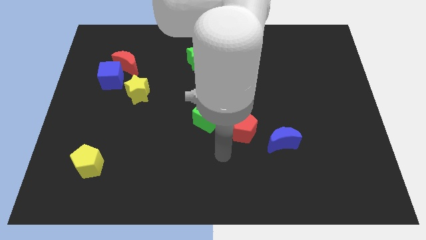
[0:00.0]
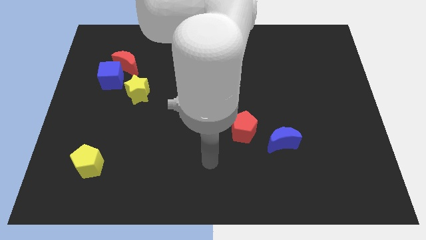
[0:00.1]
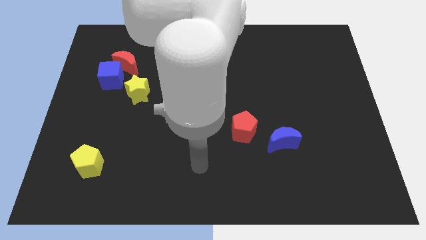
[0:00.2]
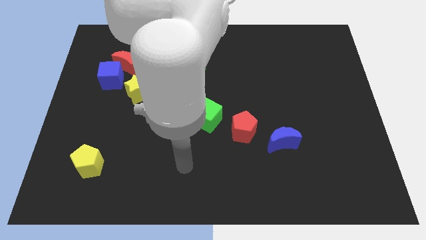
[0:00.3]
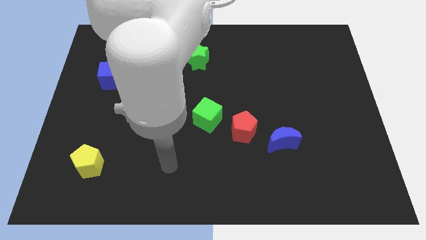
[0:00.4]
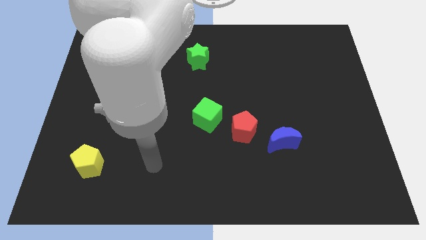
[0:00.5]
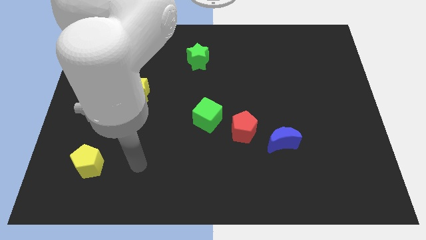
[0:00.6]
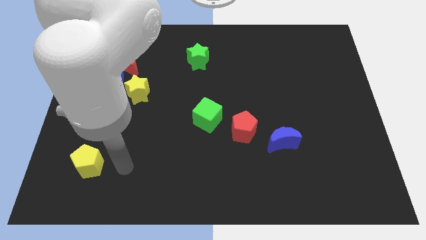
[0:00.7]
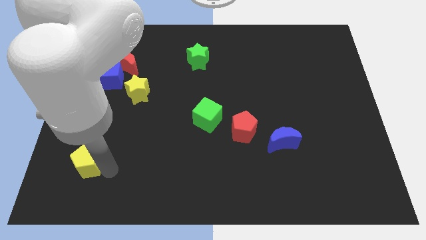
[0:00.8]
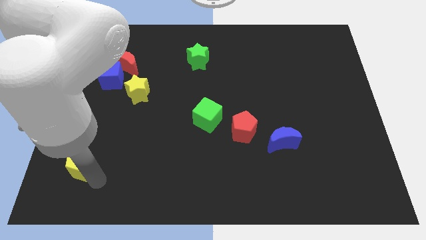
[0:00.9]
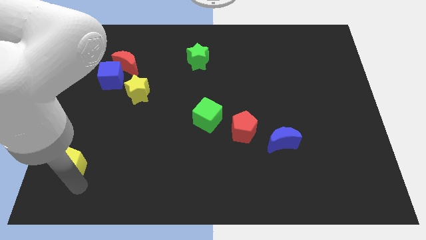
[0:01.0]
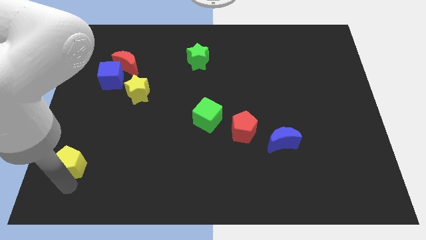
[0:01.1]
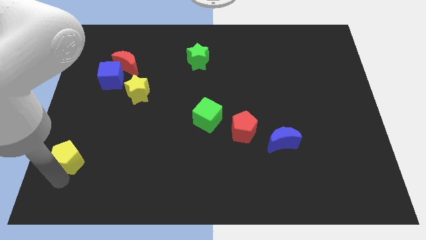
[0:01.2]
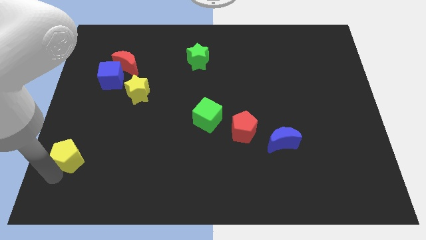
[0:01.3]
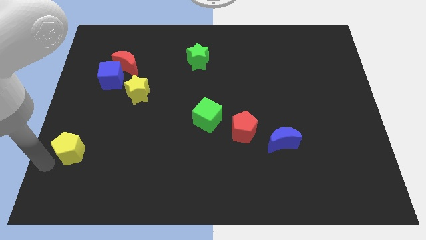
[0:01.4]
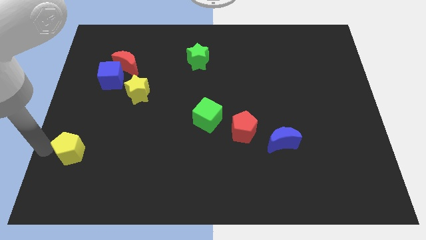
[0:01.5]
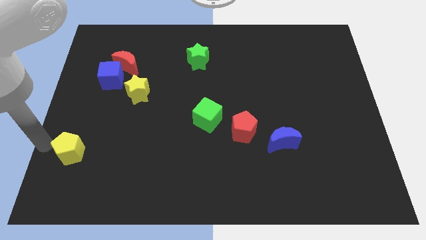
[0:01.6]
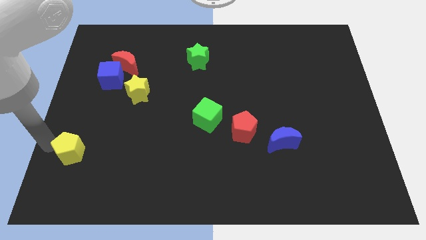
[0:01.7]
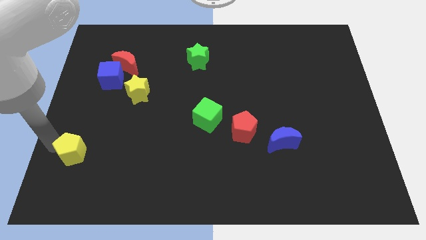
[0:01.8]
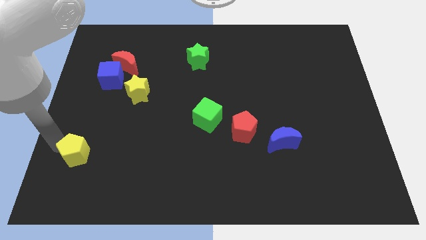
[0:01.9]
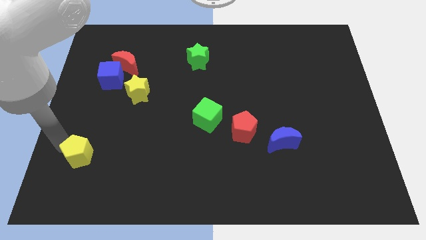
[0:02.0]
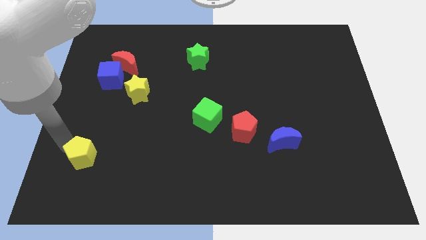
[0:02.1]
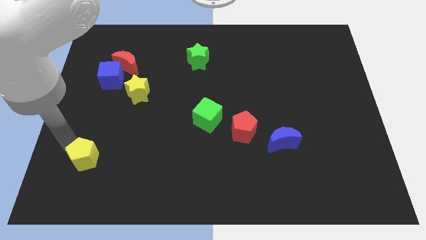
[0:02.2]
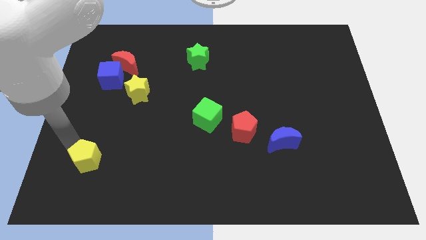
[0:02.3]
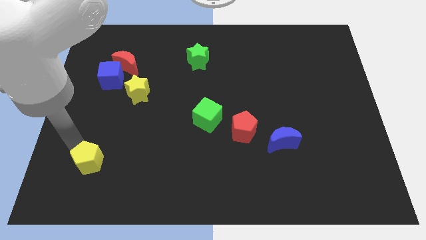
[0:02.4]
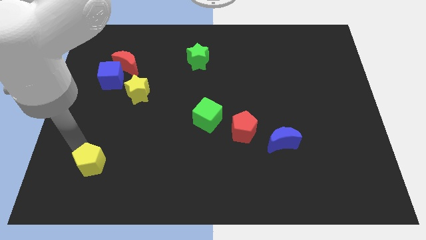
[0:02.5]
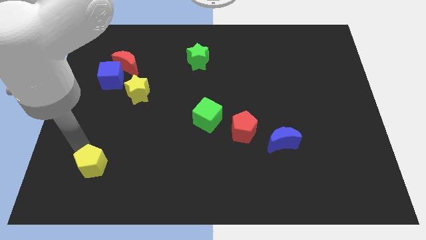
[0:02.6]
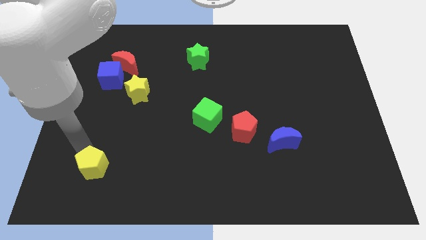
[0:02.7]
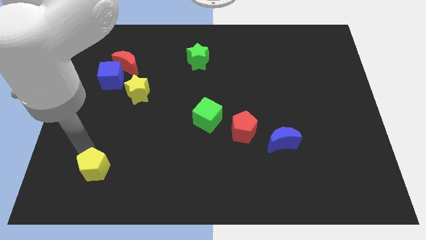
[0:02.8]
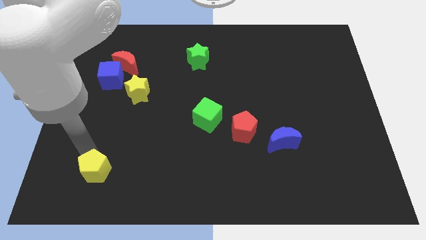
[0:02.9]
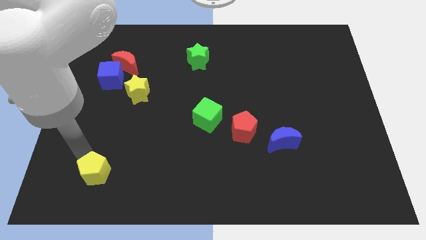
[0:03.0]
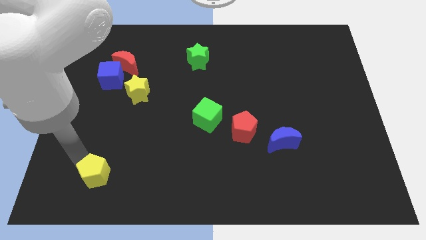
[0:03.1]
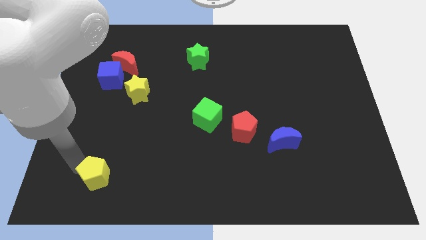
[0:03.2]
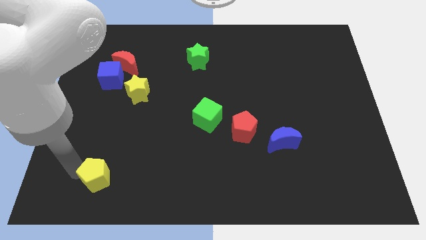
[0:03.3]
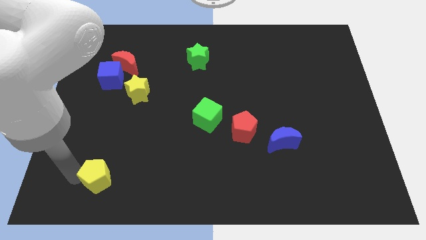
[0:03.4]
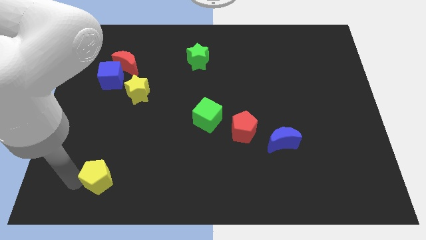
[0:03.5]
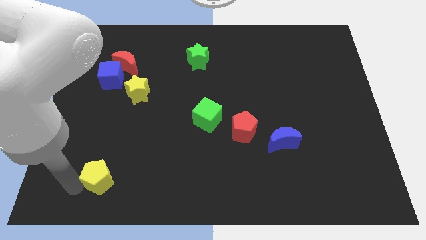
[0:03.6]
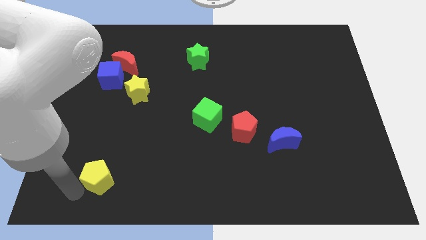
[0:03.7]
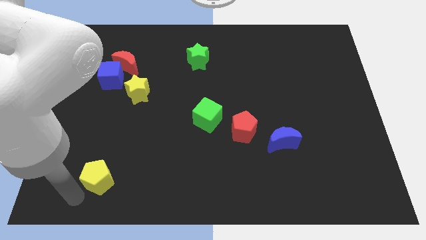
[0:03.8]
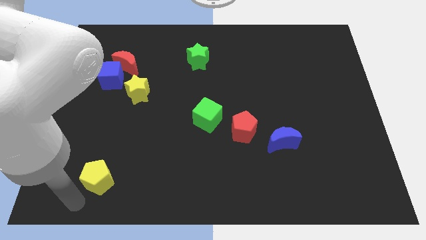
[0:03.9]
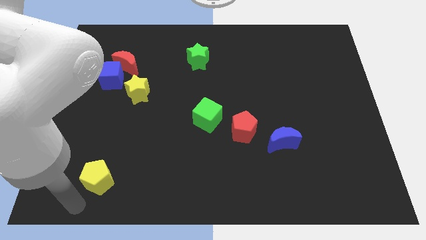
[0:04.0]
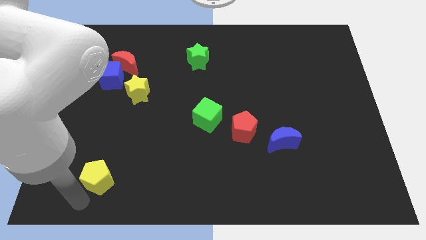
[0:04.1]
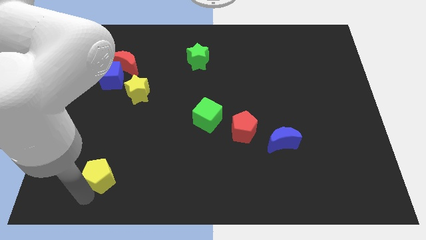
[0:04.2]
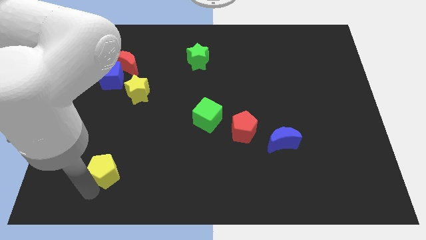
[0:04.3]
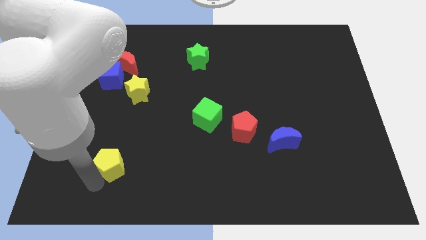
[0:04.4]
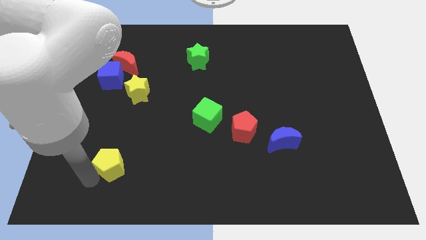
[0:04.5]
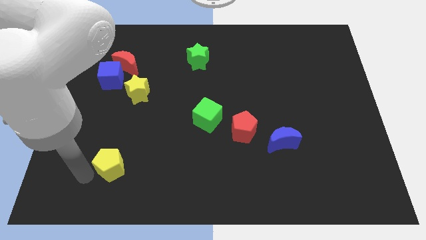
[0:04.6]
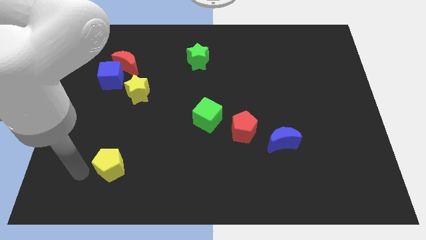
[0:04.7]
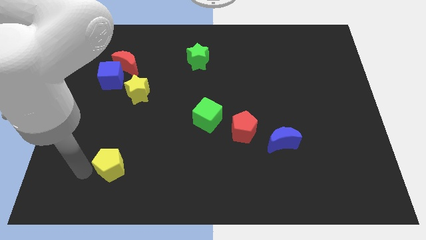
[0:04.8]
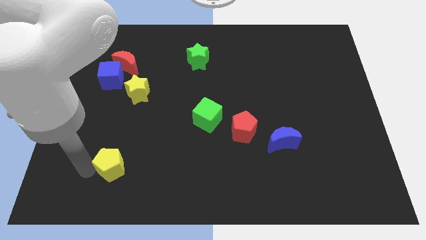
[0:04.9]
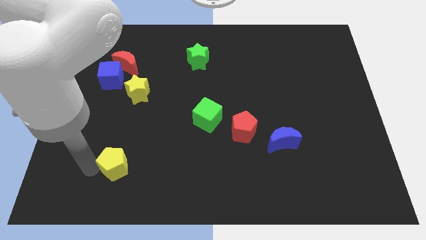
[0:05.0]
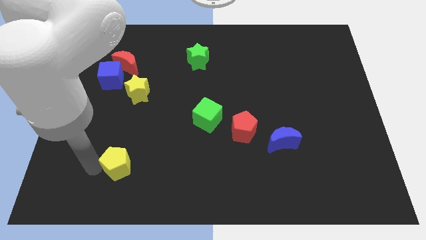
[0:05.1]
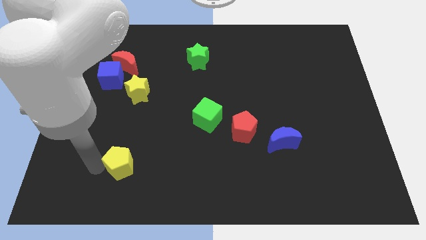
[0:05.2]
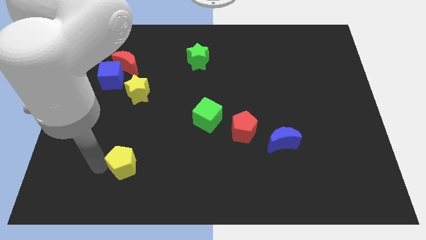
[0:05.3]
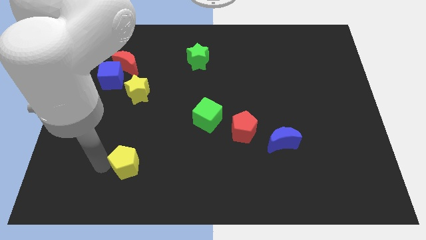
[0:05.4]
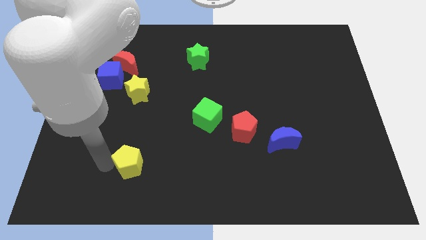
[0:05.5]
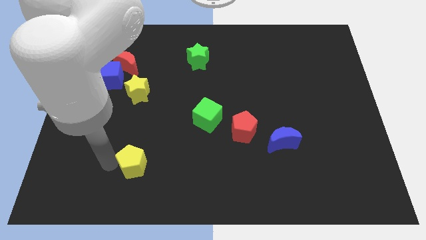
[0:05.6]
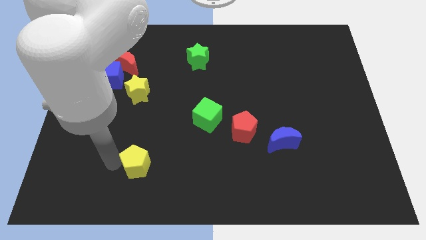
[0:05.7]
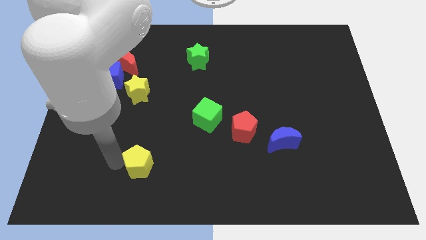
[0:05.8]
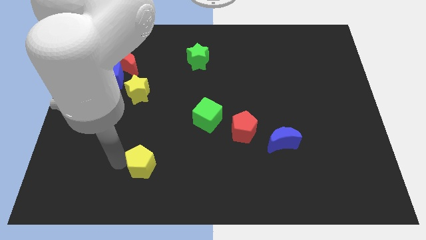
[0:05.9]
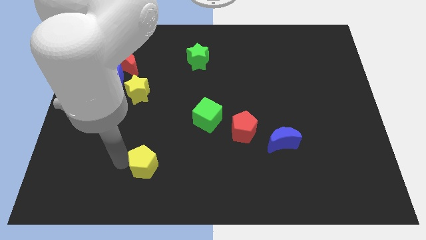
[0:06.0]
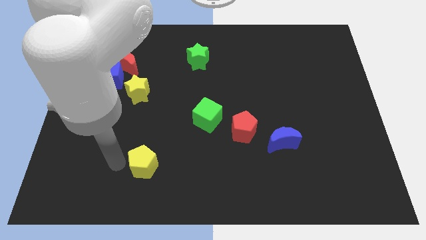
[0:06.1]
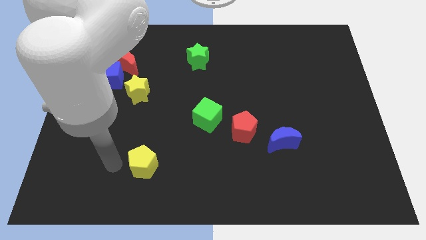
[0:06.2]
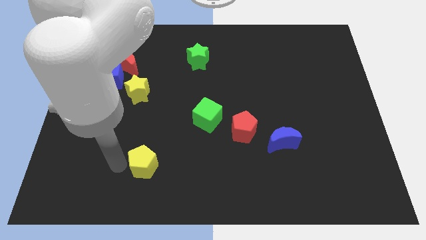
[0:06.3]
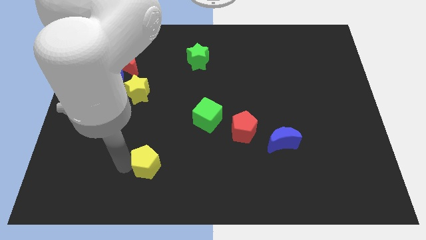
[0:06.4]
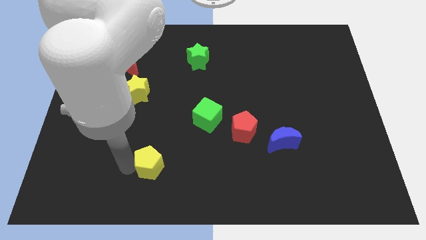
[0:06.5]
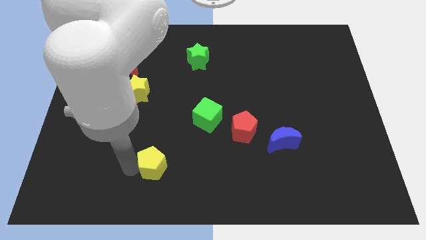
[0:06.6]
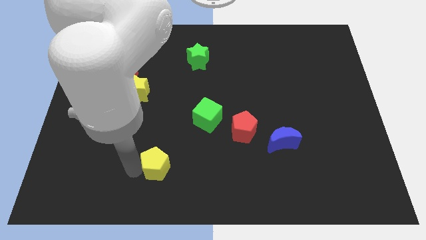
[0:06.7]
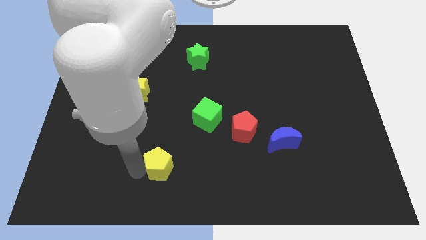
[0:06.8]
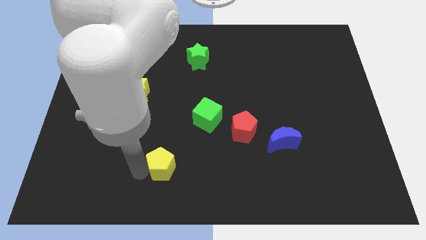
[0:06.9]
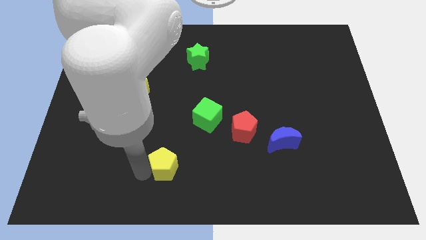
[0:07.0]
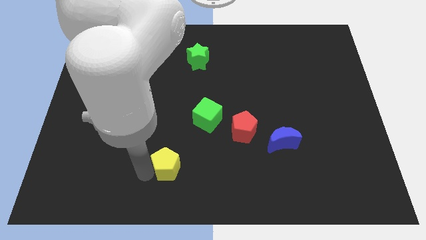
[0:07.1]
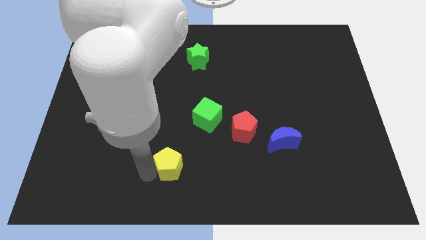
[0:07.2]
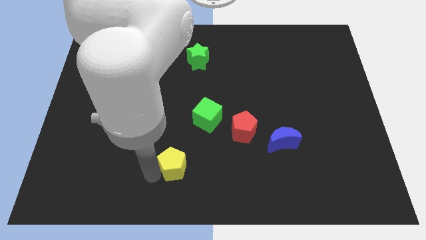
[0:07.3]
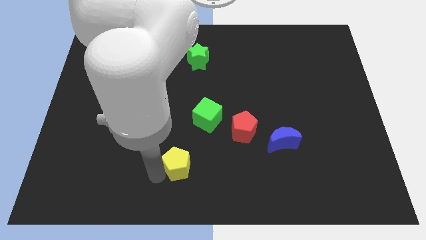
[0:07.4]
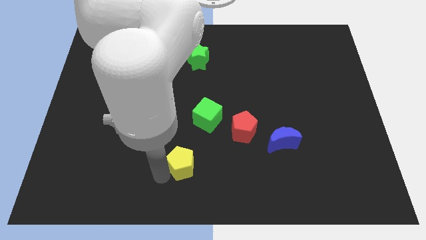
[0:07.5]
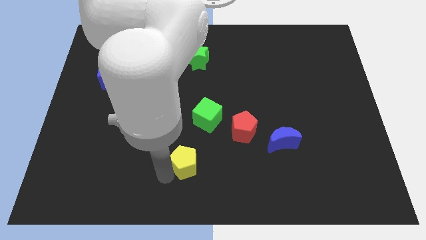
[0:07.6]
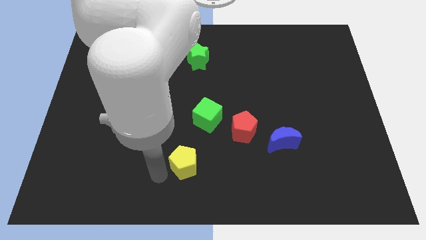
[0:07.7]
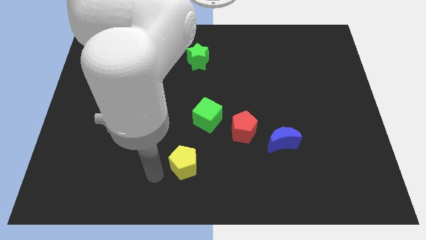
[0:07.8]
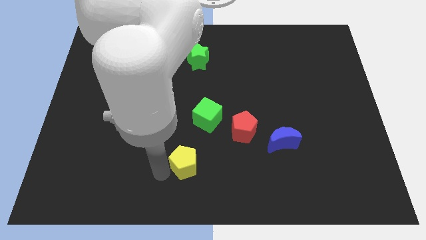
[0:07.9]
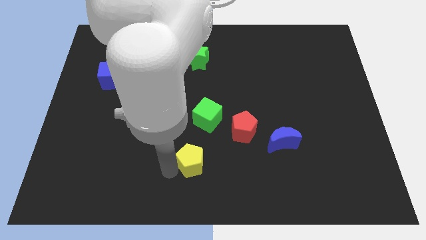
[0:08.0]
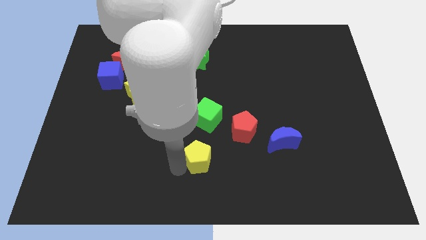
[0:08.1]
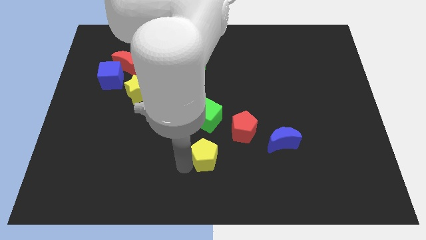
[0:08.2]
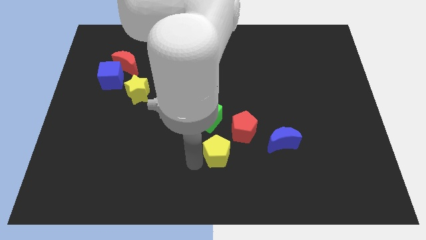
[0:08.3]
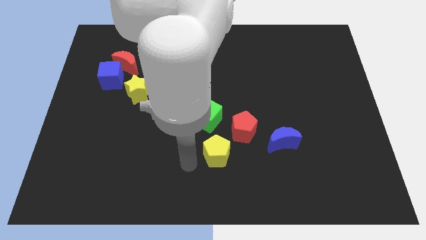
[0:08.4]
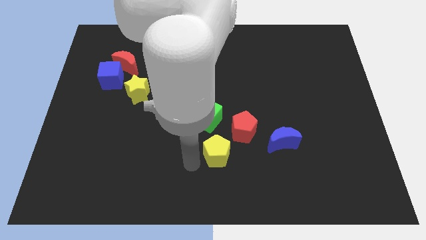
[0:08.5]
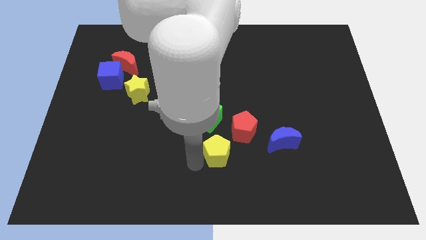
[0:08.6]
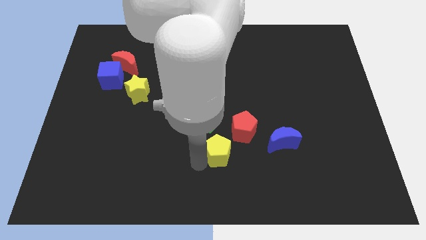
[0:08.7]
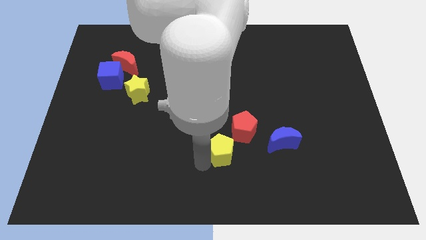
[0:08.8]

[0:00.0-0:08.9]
push the yellow pentagon to the bottom right side of the green cube
